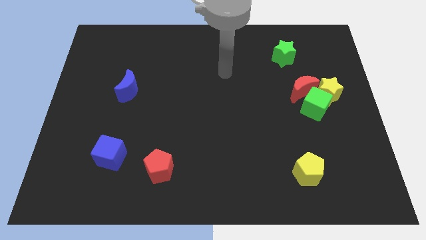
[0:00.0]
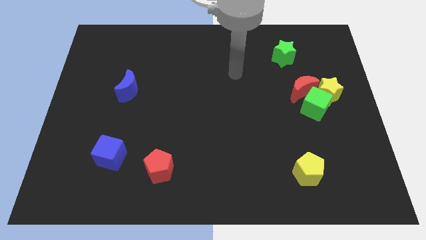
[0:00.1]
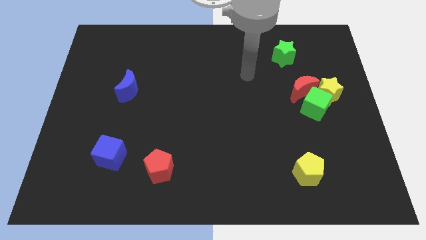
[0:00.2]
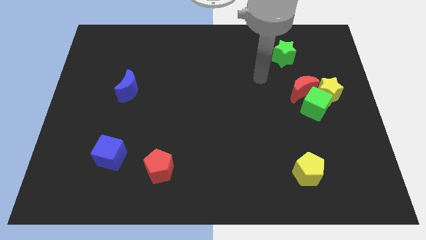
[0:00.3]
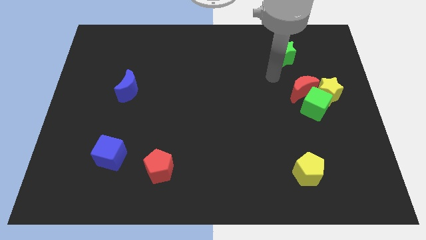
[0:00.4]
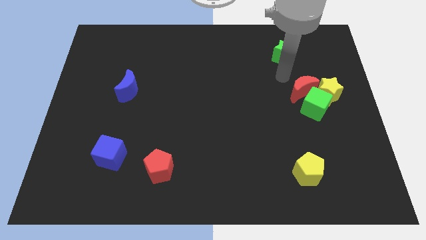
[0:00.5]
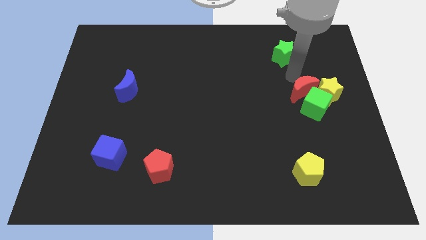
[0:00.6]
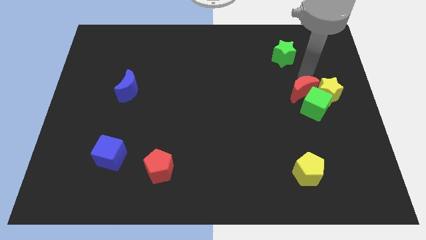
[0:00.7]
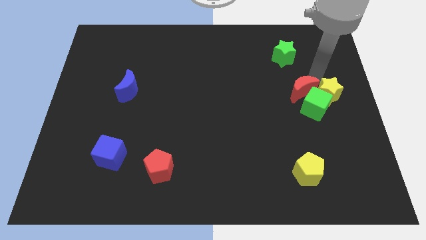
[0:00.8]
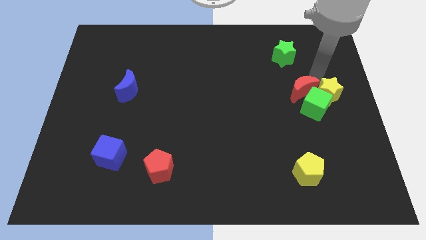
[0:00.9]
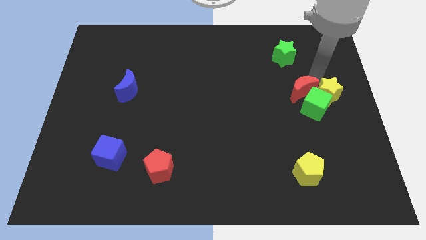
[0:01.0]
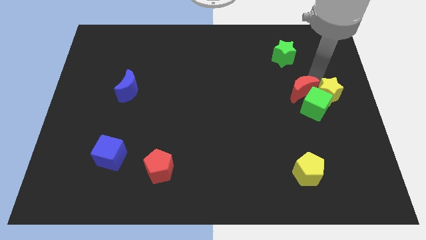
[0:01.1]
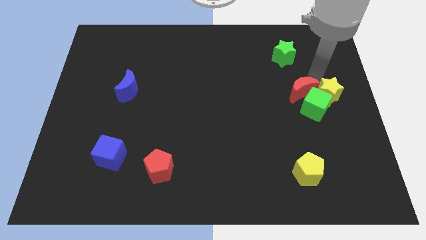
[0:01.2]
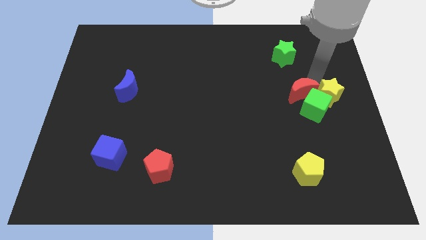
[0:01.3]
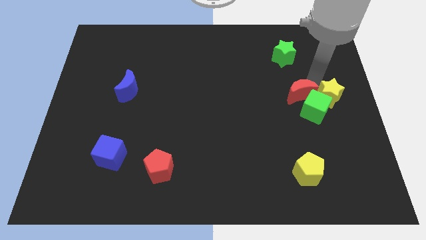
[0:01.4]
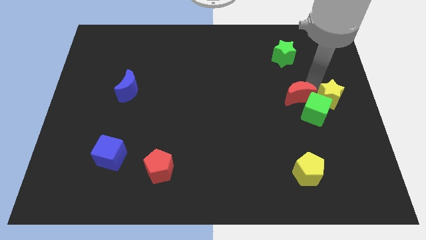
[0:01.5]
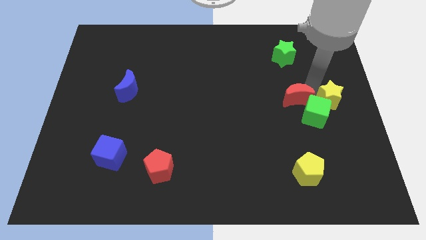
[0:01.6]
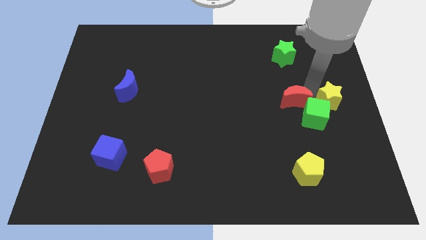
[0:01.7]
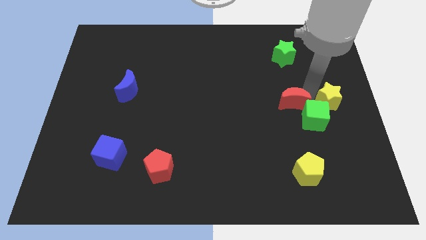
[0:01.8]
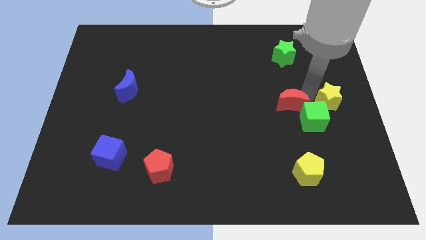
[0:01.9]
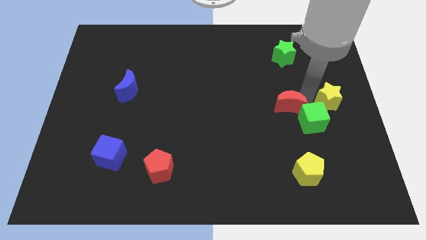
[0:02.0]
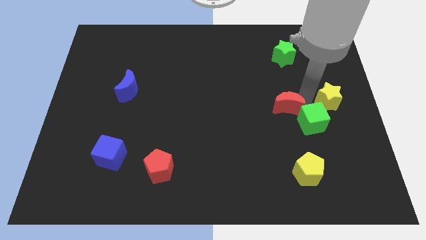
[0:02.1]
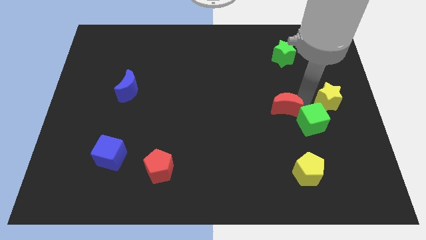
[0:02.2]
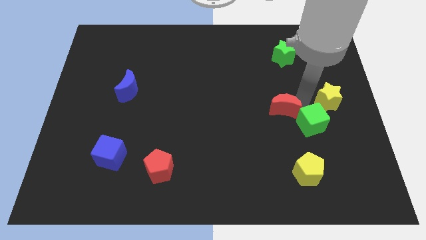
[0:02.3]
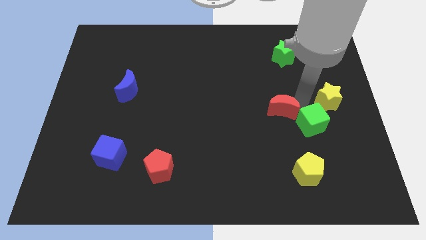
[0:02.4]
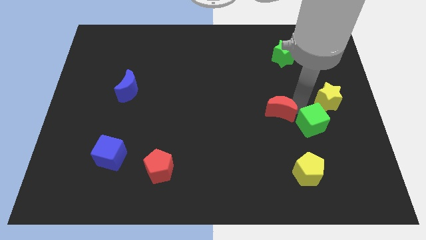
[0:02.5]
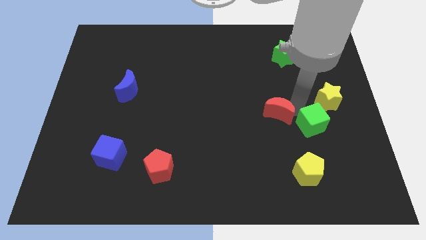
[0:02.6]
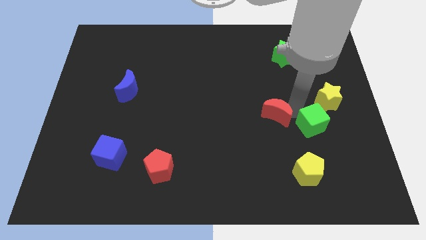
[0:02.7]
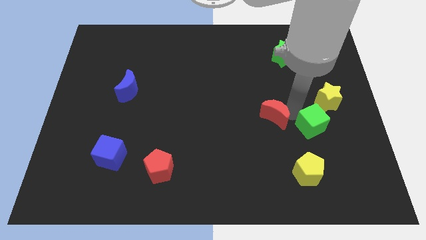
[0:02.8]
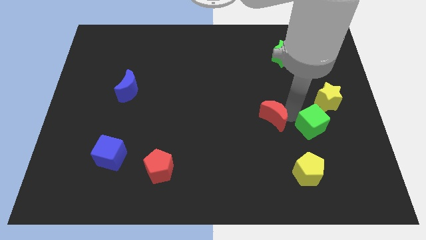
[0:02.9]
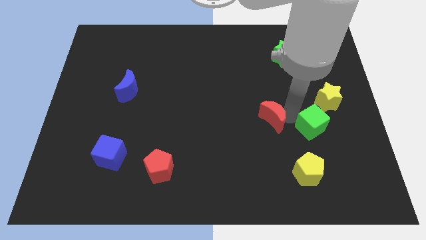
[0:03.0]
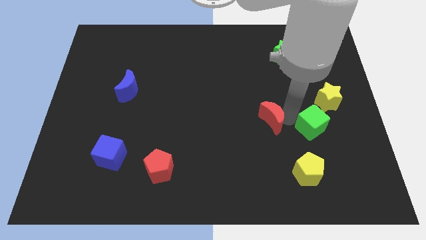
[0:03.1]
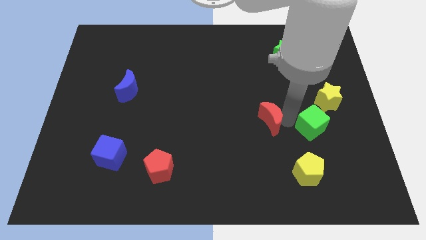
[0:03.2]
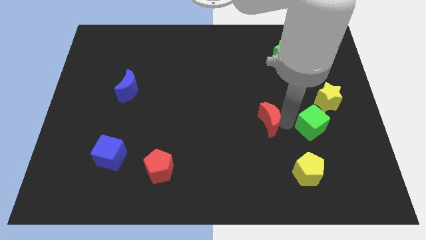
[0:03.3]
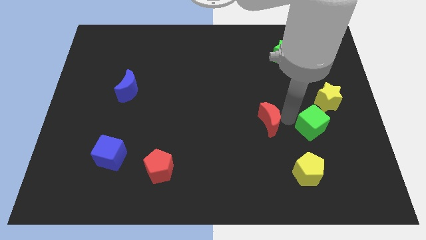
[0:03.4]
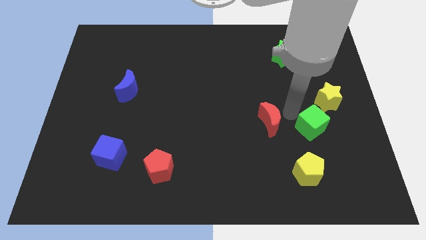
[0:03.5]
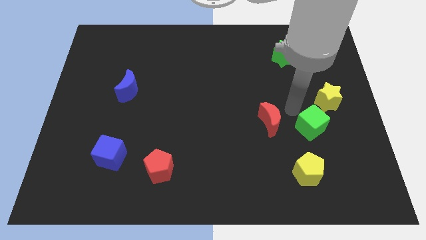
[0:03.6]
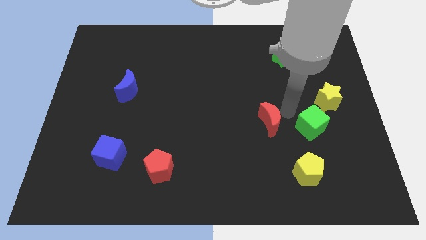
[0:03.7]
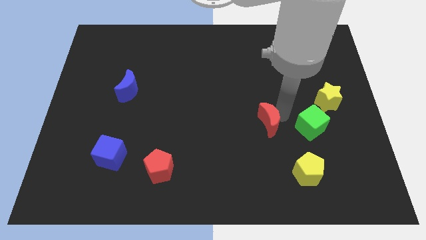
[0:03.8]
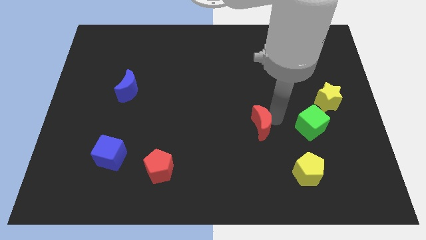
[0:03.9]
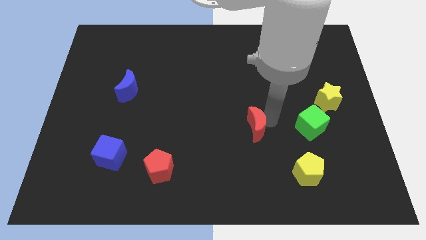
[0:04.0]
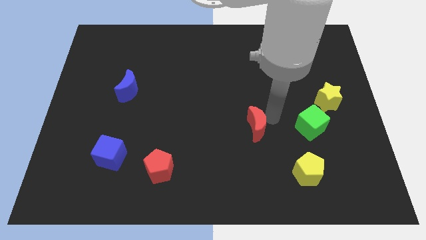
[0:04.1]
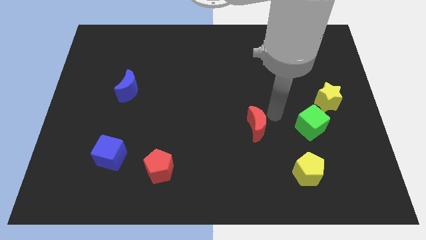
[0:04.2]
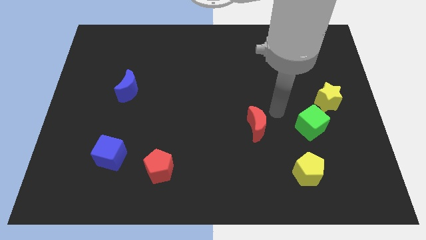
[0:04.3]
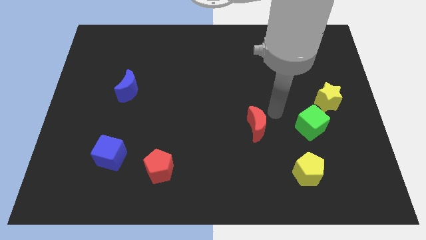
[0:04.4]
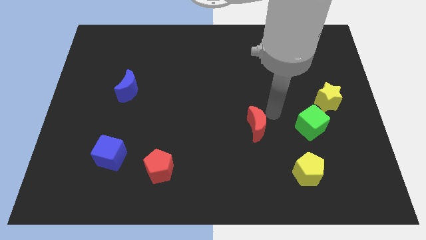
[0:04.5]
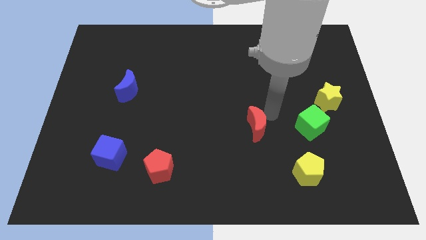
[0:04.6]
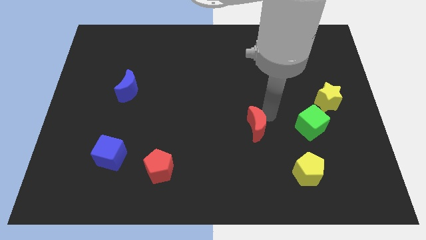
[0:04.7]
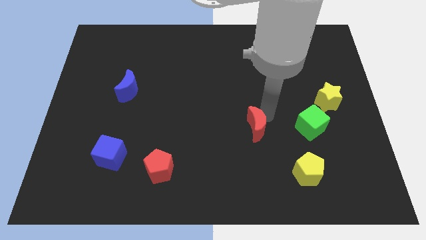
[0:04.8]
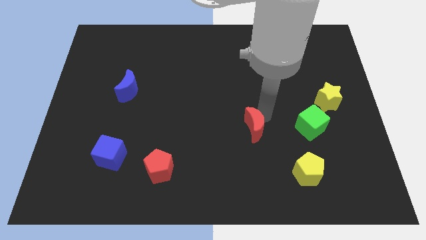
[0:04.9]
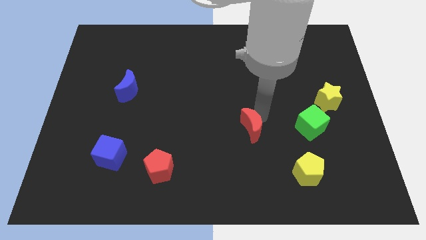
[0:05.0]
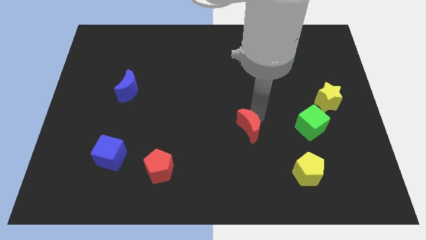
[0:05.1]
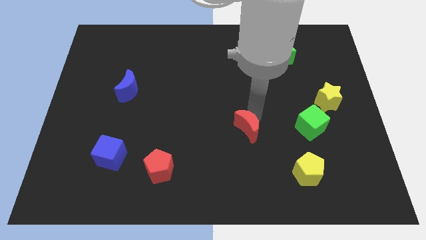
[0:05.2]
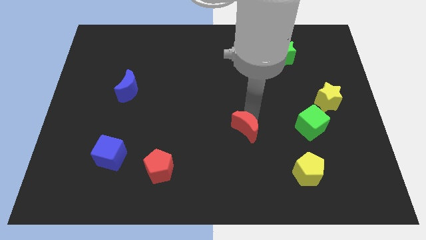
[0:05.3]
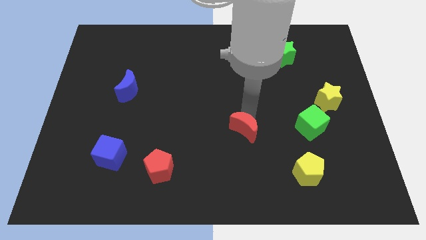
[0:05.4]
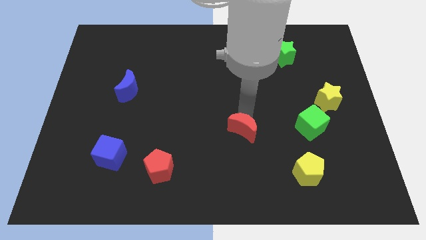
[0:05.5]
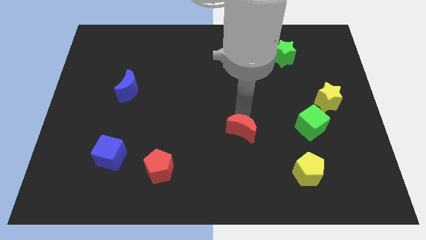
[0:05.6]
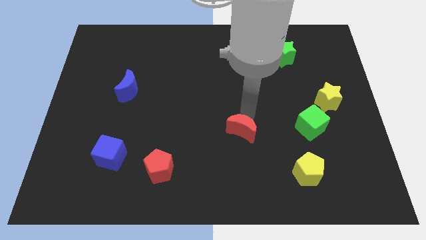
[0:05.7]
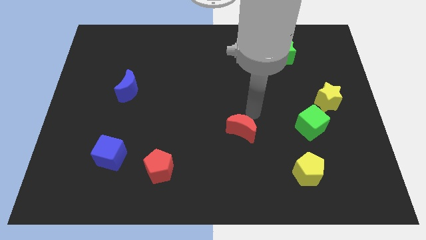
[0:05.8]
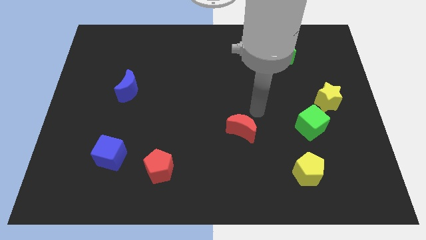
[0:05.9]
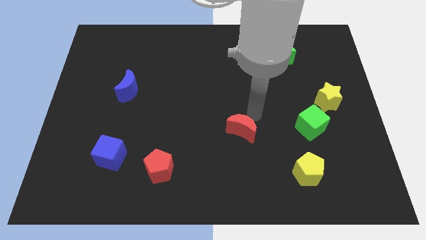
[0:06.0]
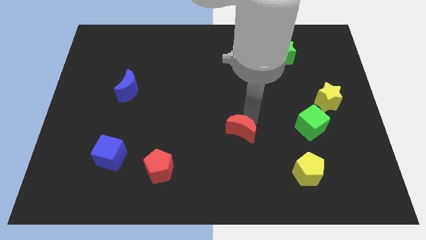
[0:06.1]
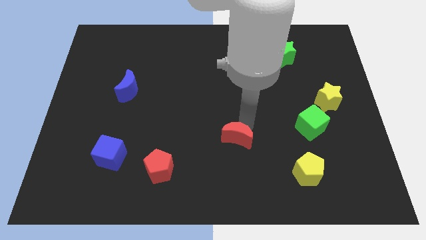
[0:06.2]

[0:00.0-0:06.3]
move the red moon down and to the left diagonally

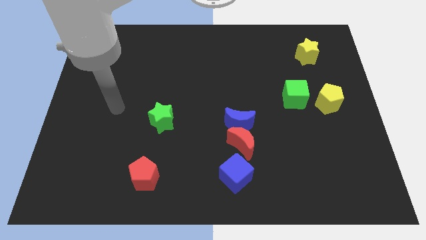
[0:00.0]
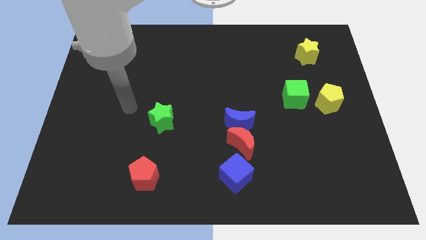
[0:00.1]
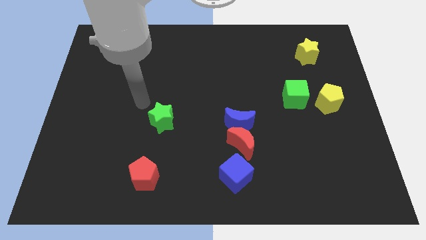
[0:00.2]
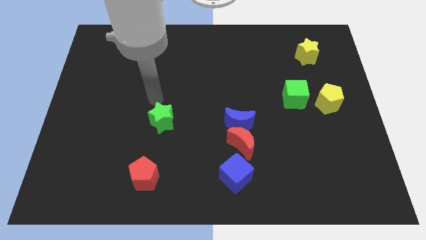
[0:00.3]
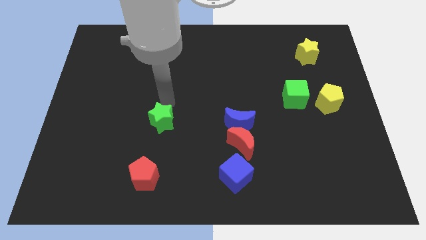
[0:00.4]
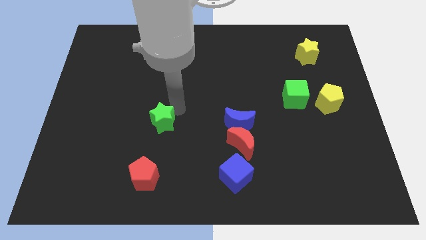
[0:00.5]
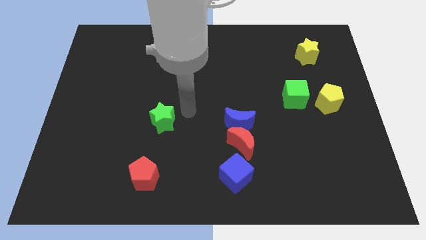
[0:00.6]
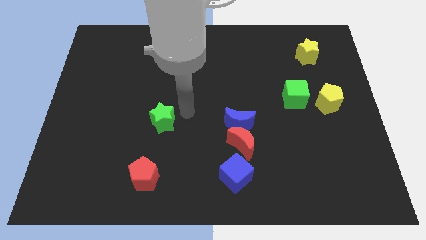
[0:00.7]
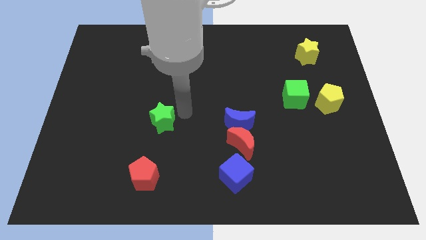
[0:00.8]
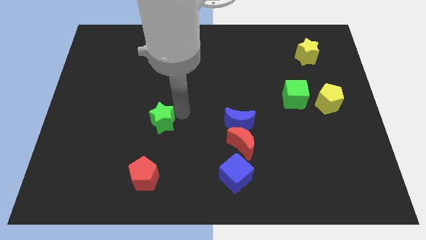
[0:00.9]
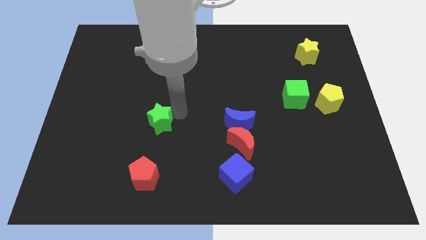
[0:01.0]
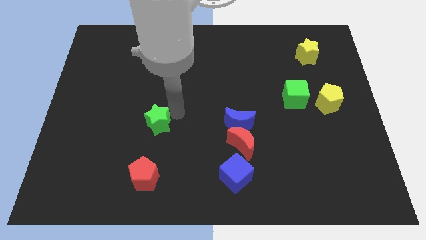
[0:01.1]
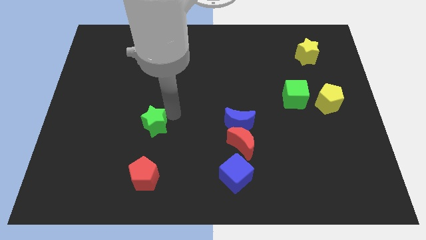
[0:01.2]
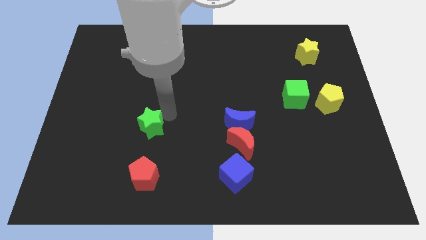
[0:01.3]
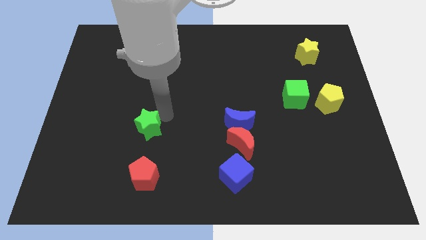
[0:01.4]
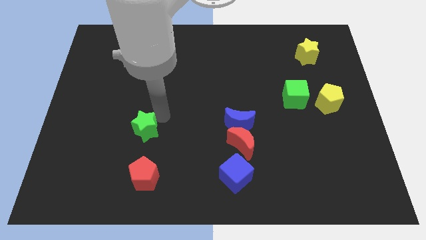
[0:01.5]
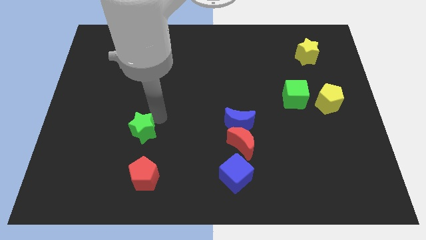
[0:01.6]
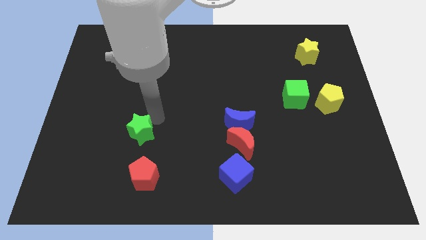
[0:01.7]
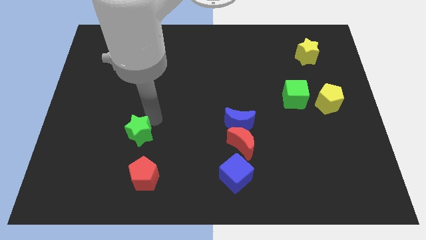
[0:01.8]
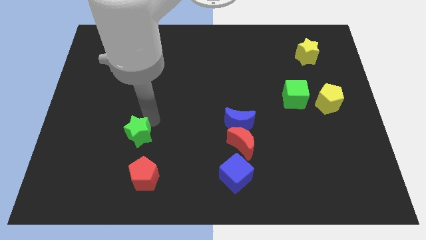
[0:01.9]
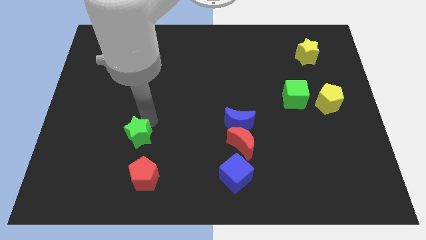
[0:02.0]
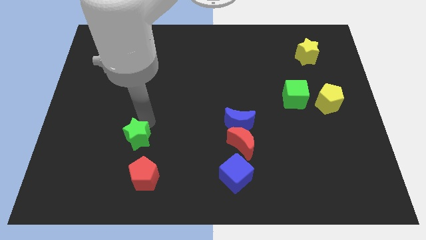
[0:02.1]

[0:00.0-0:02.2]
slide the green star down and then left somewhat
